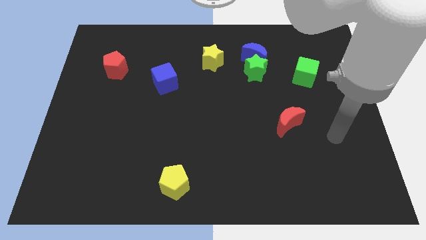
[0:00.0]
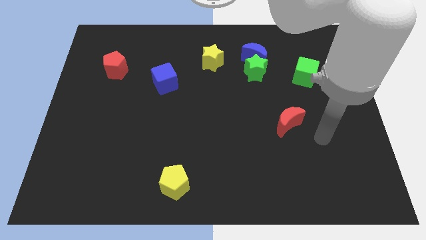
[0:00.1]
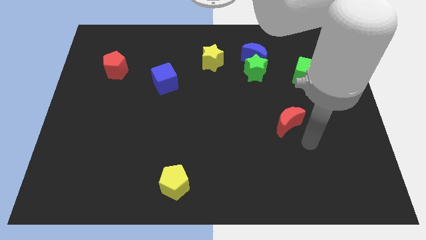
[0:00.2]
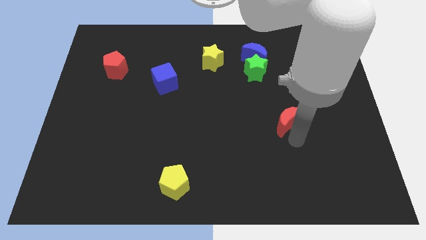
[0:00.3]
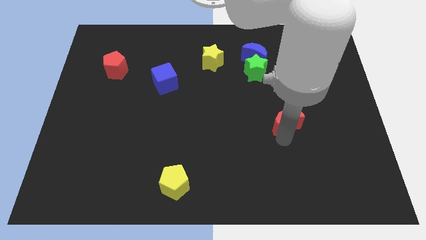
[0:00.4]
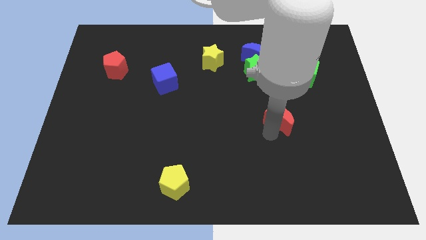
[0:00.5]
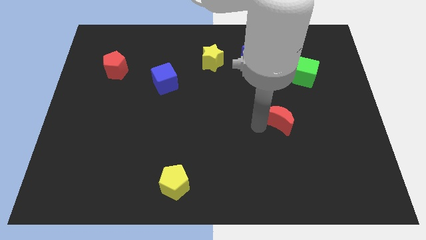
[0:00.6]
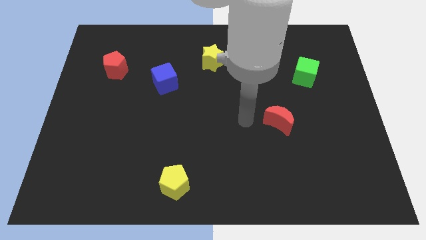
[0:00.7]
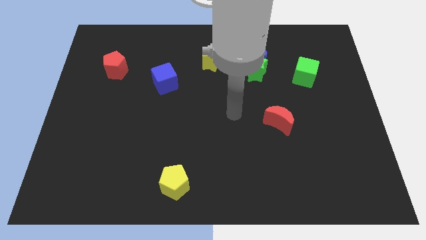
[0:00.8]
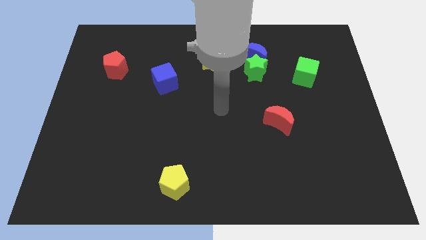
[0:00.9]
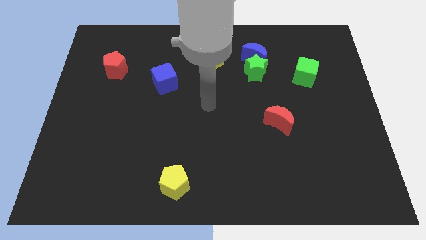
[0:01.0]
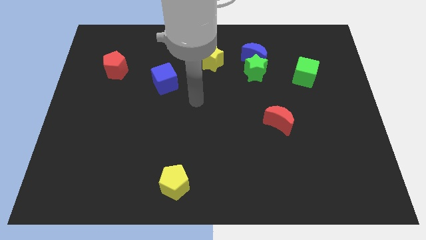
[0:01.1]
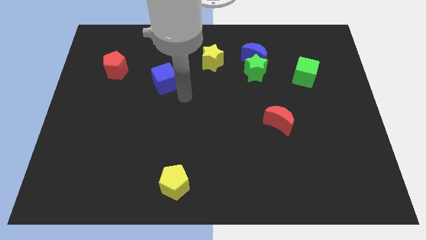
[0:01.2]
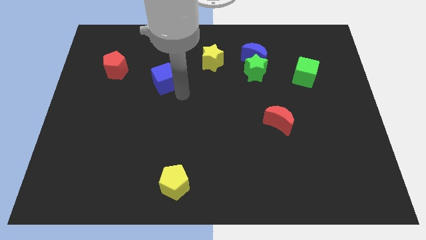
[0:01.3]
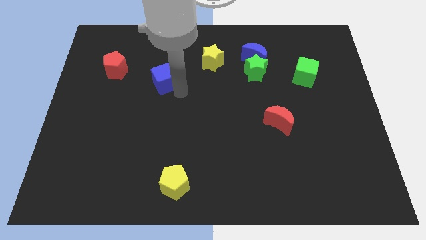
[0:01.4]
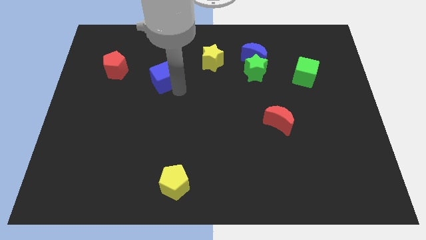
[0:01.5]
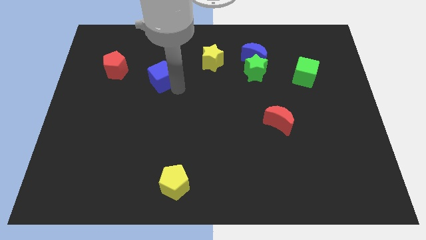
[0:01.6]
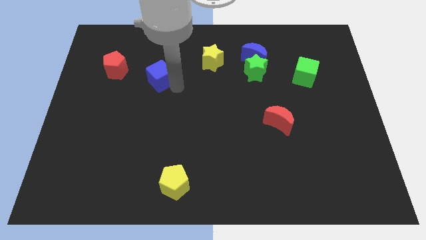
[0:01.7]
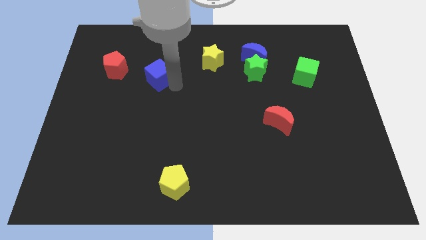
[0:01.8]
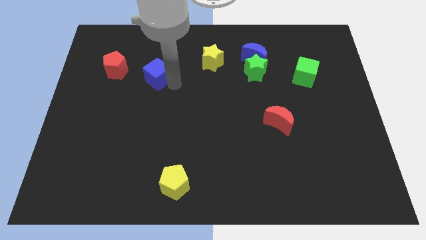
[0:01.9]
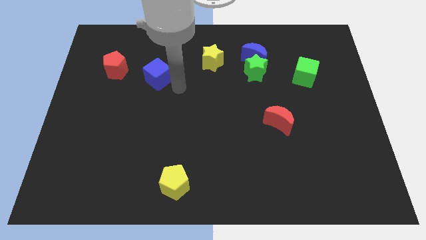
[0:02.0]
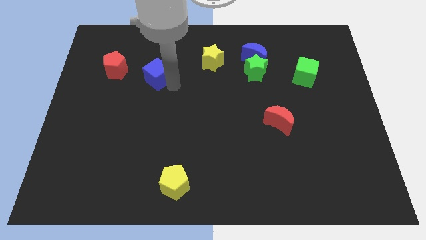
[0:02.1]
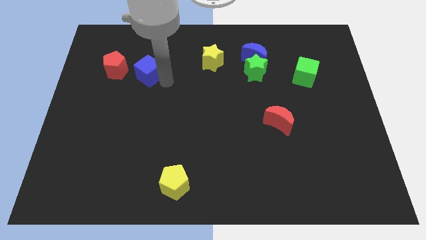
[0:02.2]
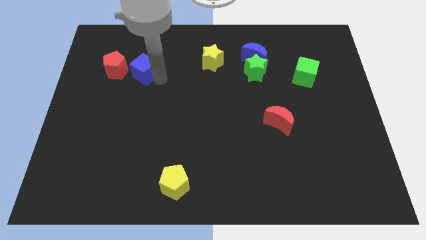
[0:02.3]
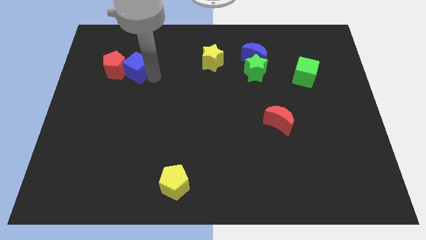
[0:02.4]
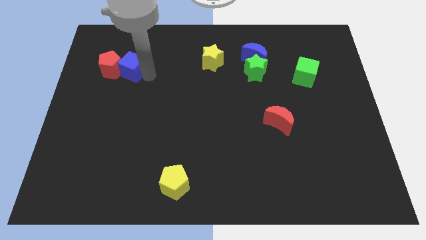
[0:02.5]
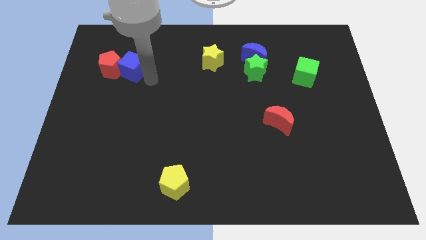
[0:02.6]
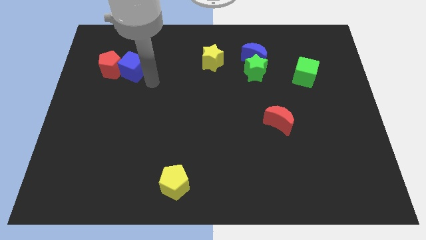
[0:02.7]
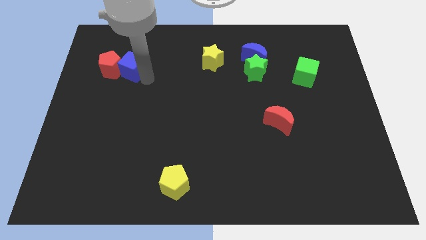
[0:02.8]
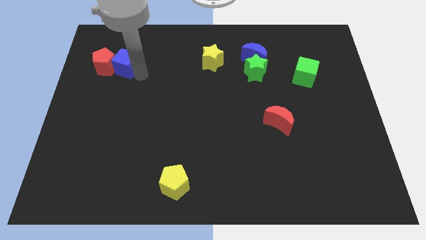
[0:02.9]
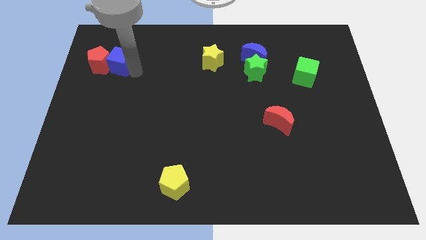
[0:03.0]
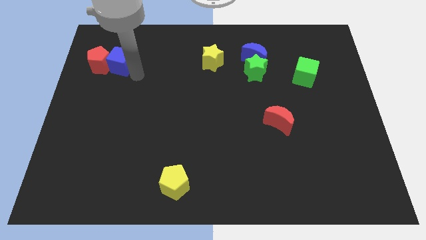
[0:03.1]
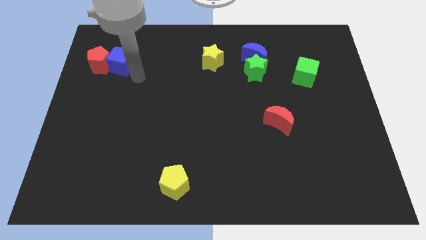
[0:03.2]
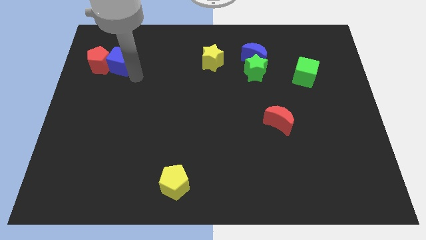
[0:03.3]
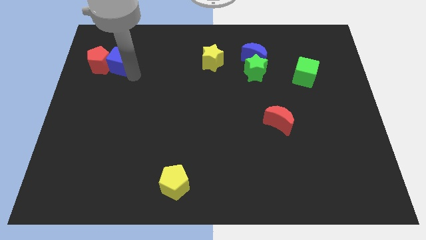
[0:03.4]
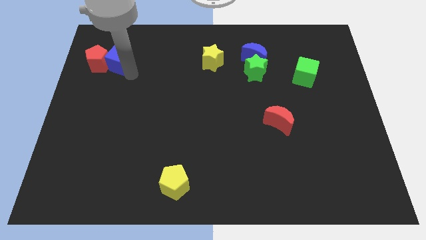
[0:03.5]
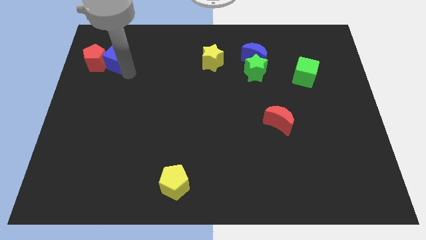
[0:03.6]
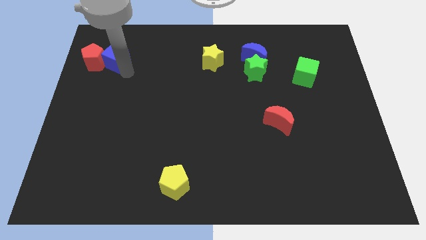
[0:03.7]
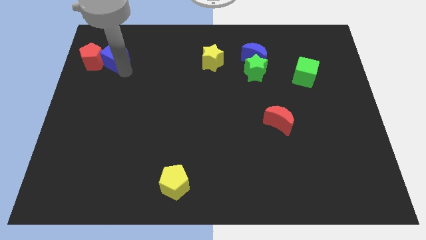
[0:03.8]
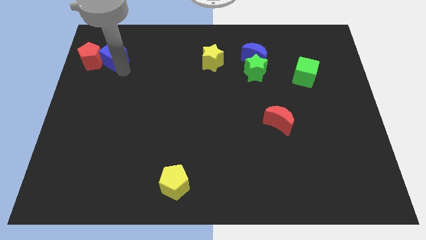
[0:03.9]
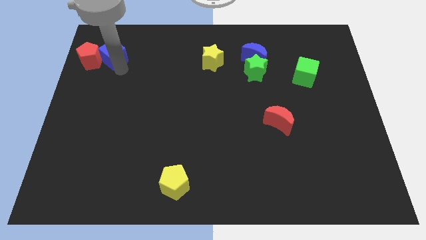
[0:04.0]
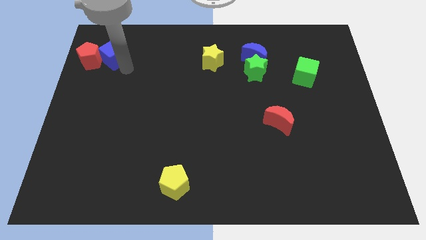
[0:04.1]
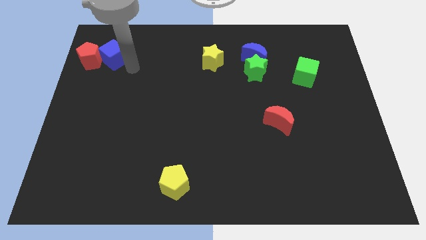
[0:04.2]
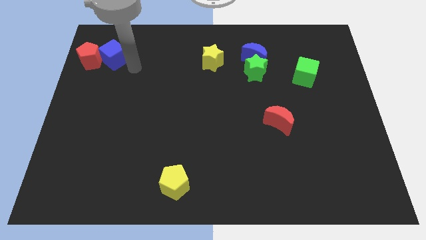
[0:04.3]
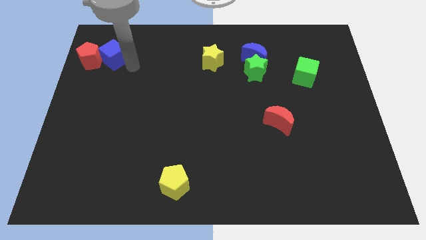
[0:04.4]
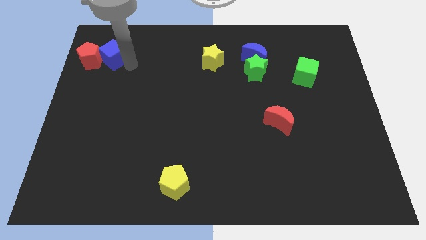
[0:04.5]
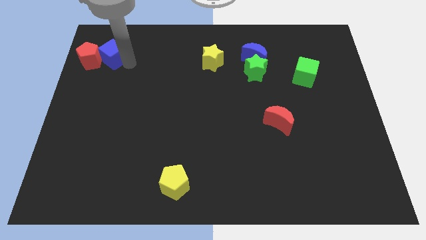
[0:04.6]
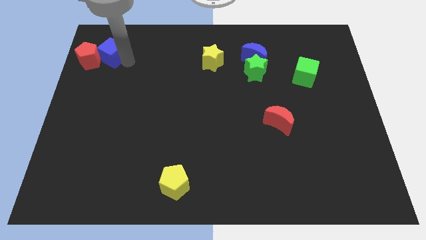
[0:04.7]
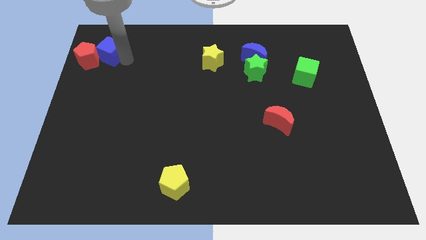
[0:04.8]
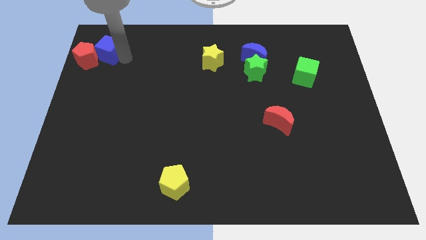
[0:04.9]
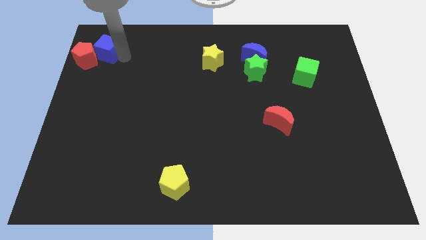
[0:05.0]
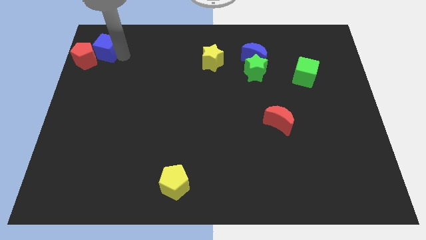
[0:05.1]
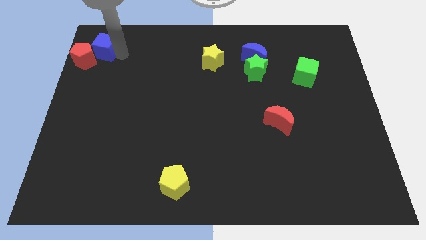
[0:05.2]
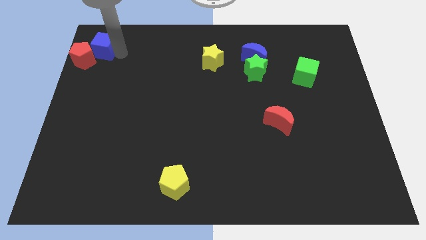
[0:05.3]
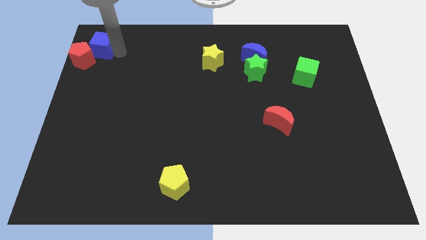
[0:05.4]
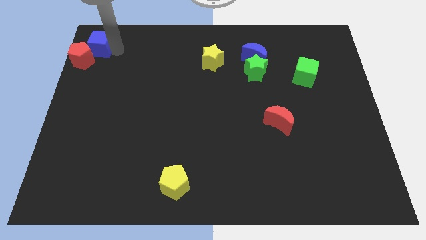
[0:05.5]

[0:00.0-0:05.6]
push the blue cube to the upper left corner

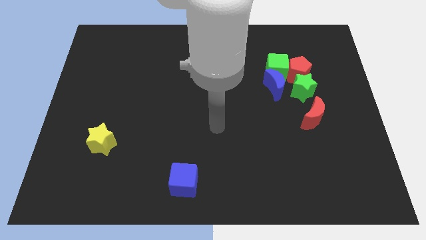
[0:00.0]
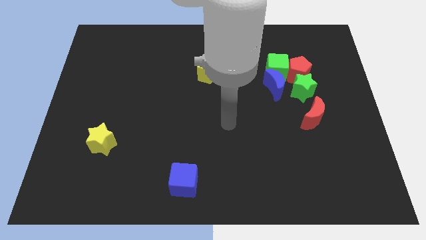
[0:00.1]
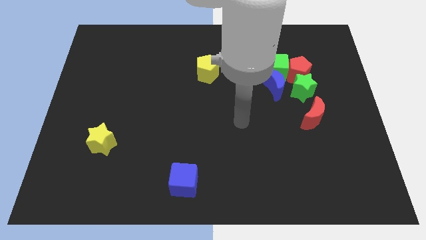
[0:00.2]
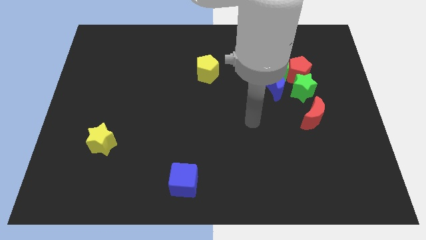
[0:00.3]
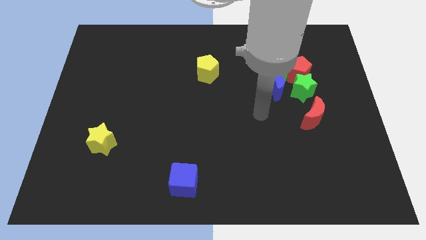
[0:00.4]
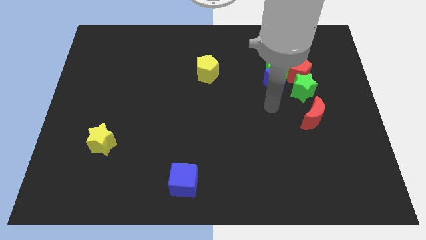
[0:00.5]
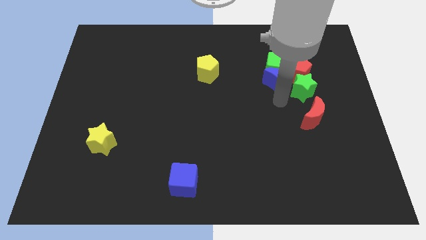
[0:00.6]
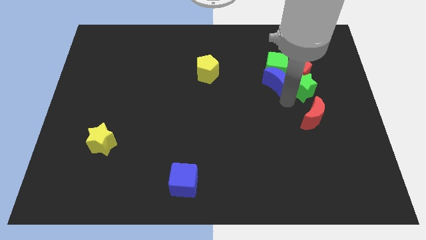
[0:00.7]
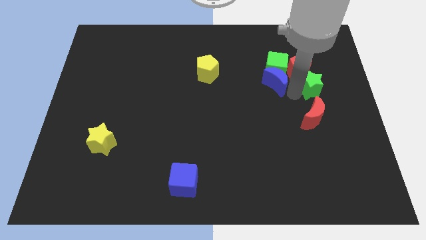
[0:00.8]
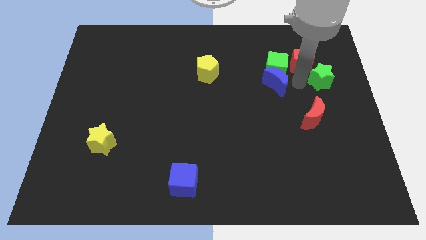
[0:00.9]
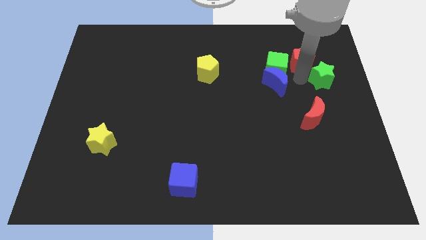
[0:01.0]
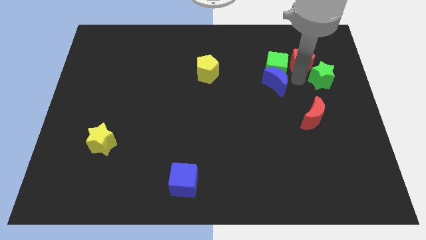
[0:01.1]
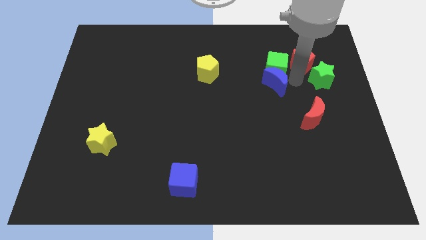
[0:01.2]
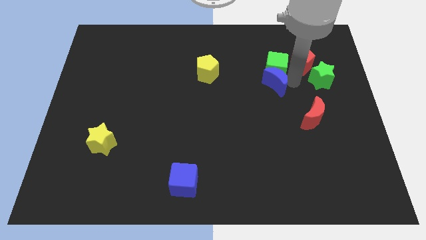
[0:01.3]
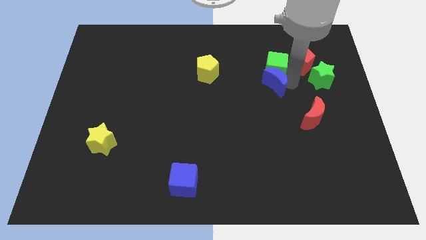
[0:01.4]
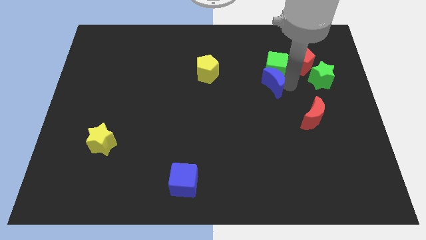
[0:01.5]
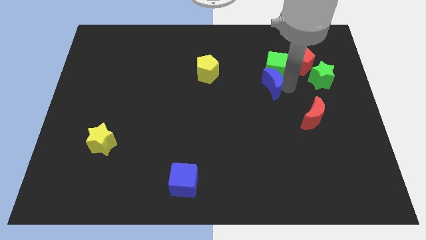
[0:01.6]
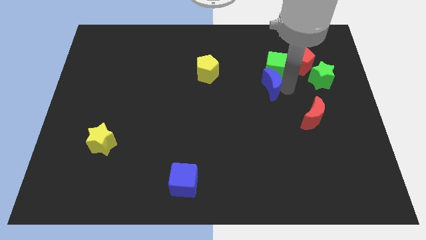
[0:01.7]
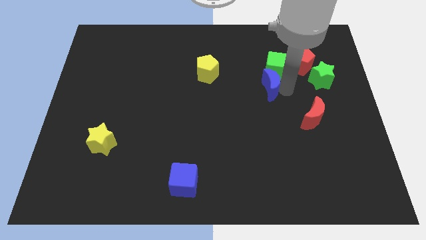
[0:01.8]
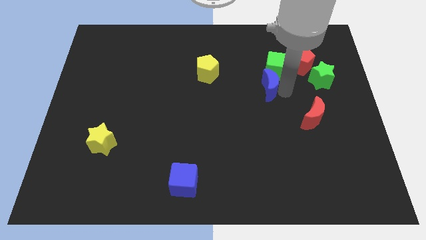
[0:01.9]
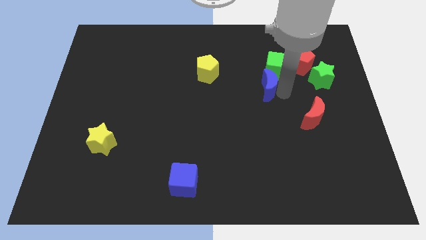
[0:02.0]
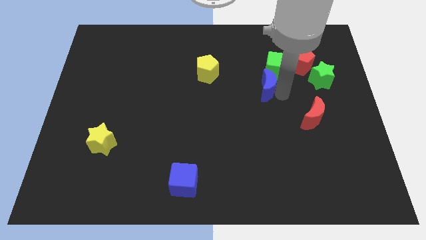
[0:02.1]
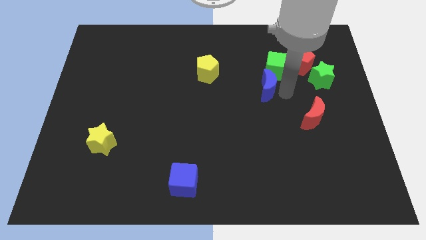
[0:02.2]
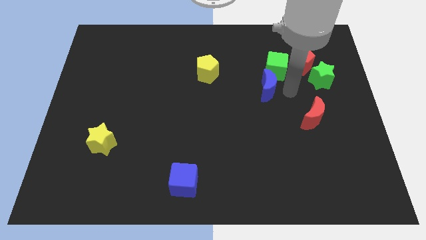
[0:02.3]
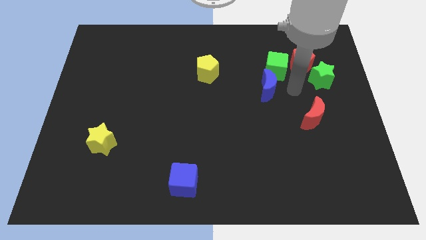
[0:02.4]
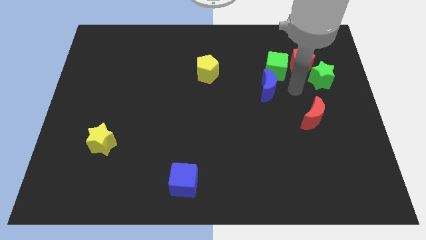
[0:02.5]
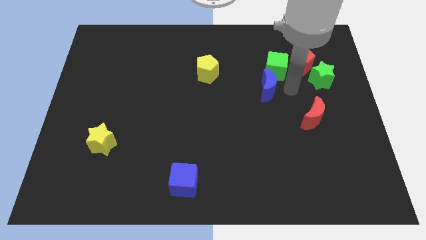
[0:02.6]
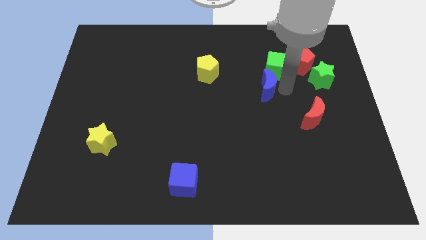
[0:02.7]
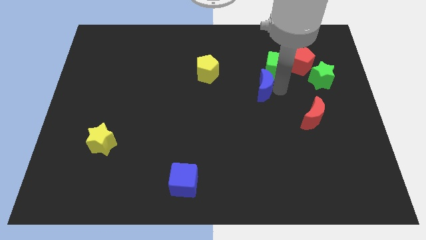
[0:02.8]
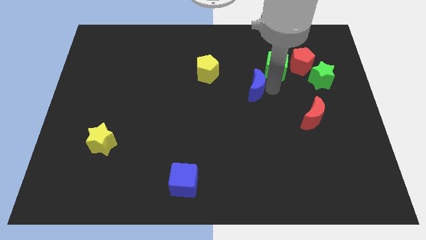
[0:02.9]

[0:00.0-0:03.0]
move the blue moon to the center
